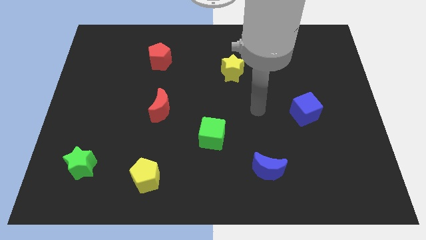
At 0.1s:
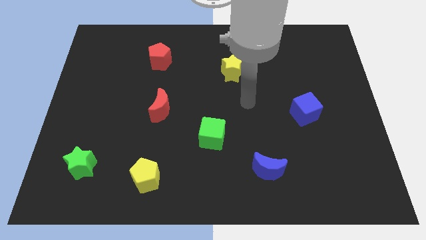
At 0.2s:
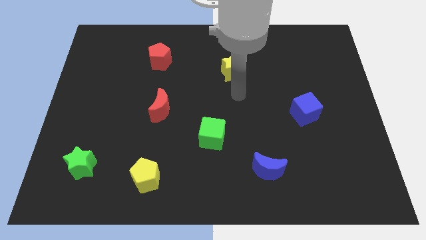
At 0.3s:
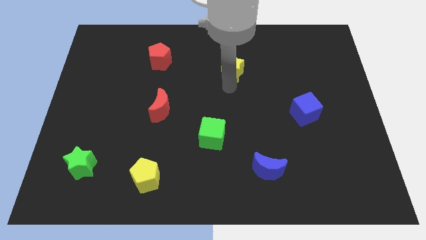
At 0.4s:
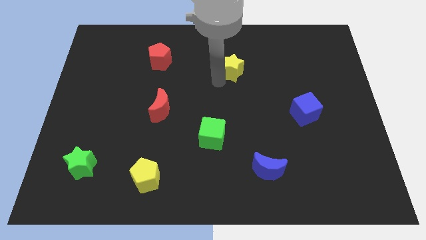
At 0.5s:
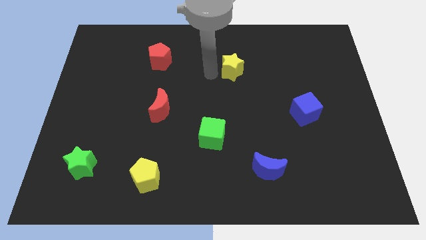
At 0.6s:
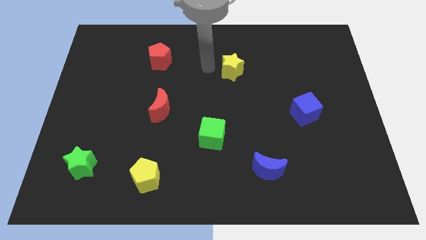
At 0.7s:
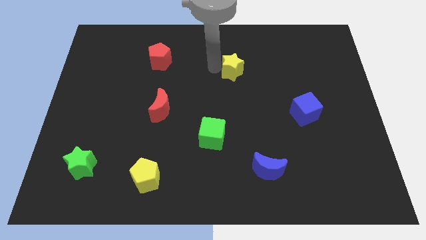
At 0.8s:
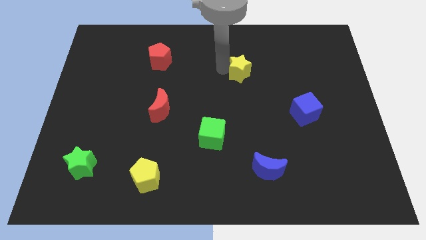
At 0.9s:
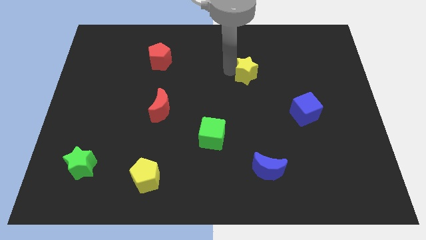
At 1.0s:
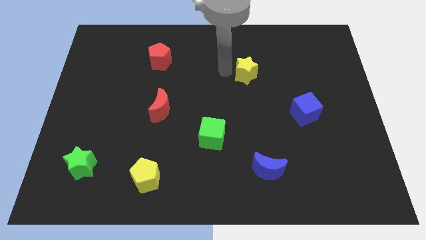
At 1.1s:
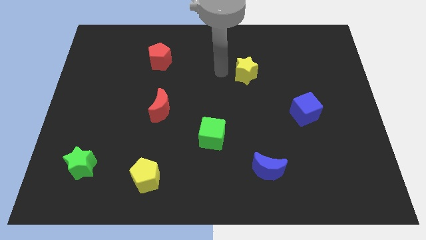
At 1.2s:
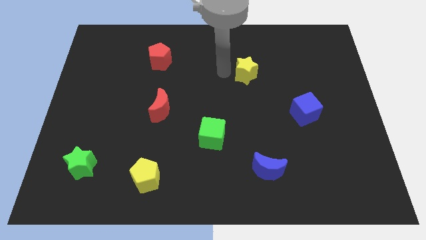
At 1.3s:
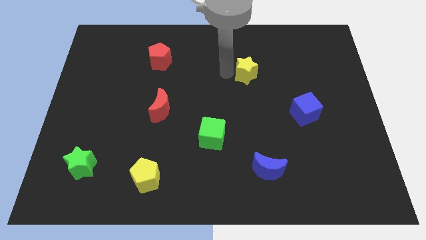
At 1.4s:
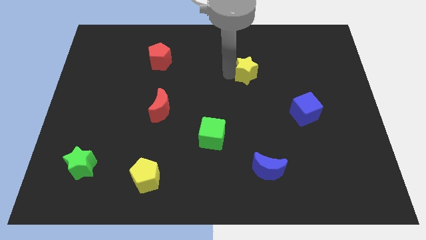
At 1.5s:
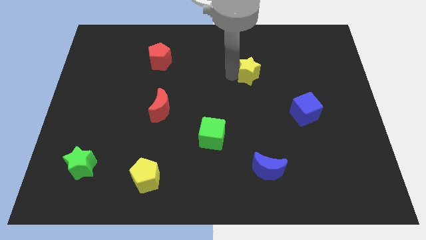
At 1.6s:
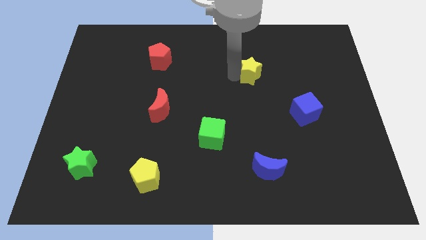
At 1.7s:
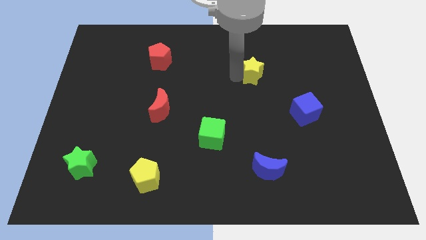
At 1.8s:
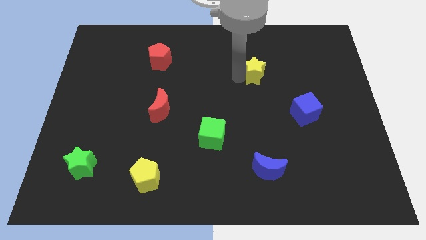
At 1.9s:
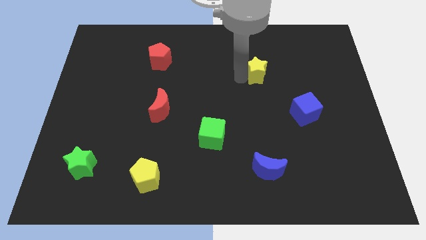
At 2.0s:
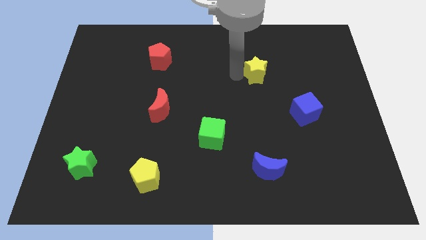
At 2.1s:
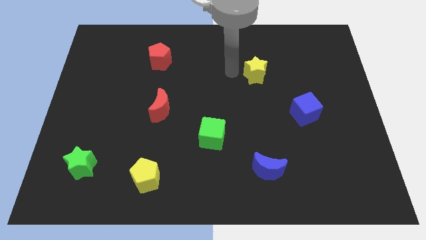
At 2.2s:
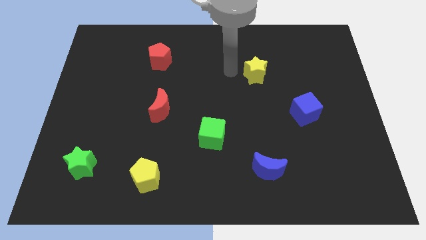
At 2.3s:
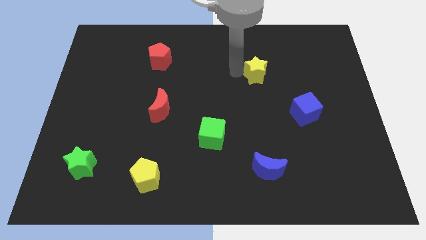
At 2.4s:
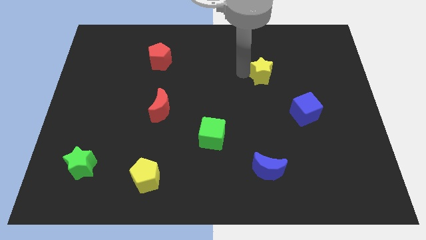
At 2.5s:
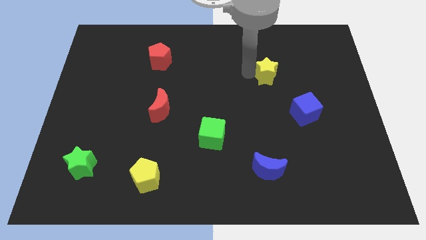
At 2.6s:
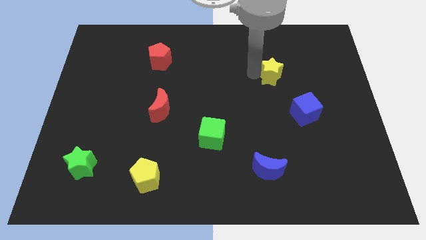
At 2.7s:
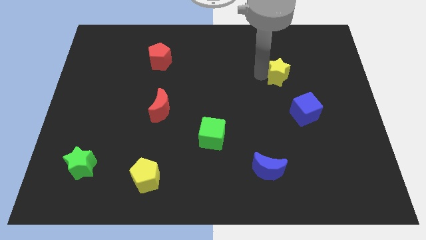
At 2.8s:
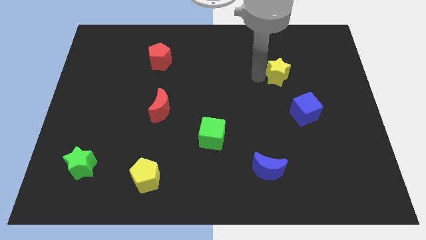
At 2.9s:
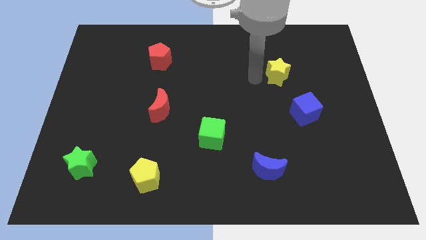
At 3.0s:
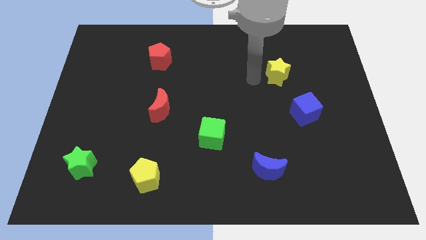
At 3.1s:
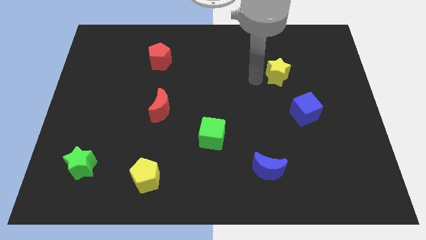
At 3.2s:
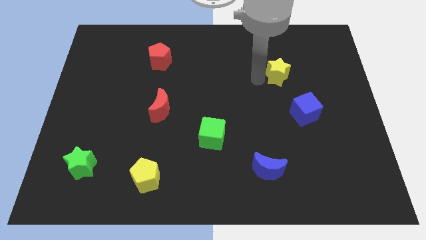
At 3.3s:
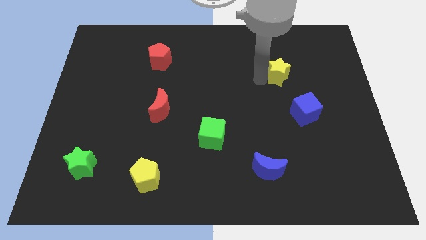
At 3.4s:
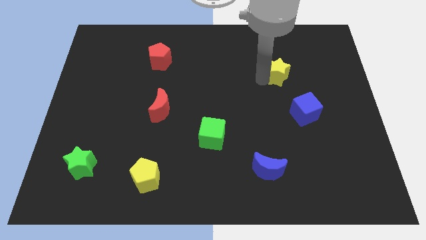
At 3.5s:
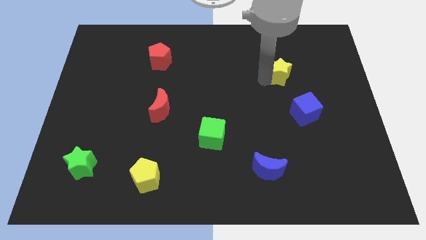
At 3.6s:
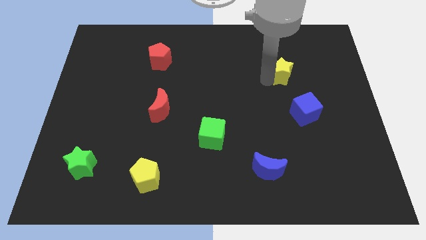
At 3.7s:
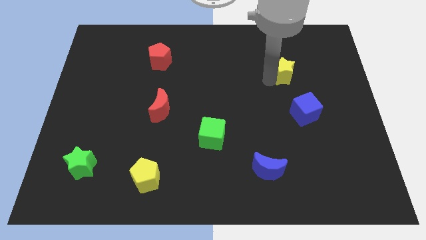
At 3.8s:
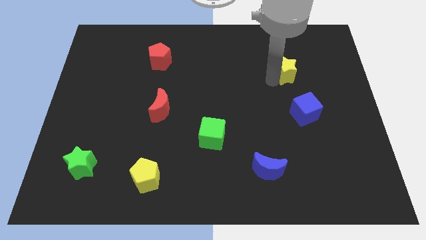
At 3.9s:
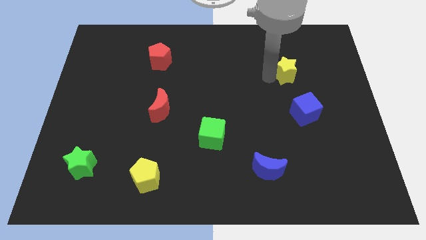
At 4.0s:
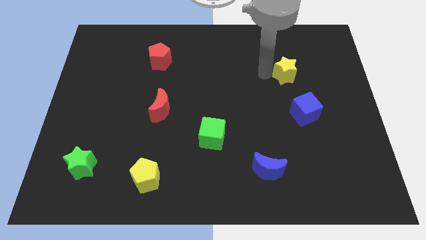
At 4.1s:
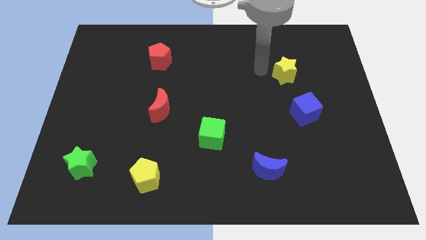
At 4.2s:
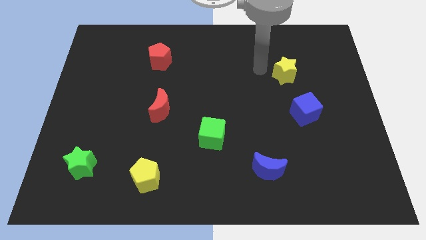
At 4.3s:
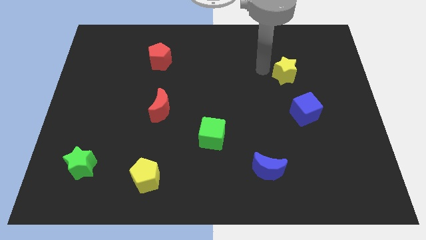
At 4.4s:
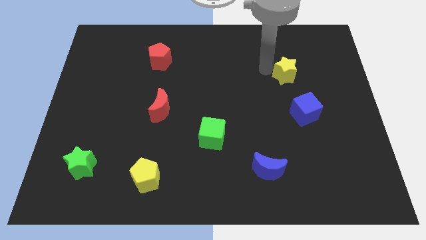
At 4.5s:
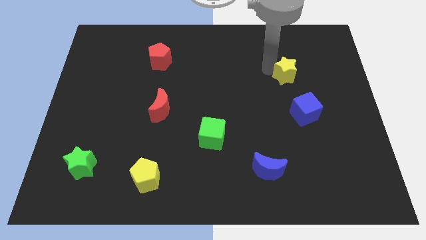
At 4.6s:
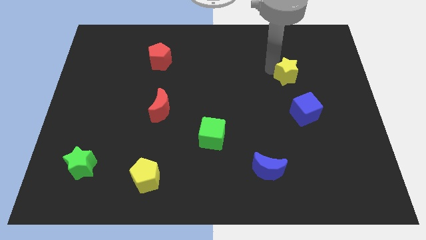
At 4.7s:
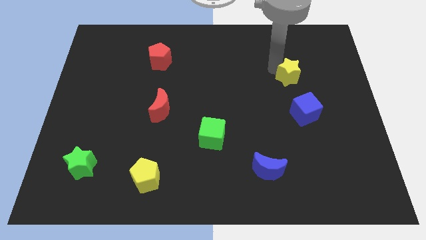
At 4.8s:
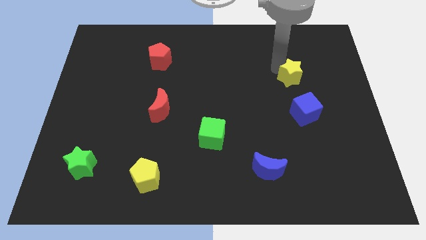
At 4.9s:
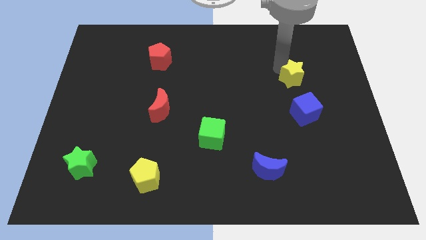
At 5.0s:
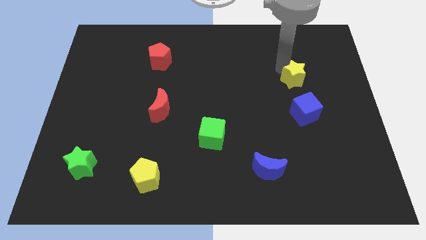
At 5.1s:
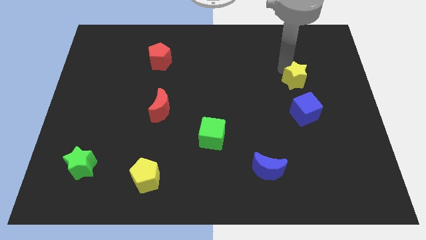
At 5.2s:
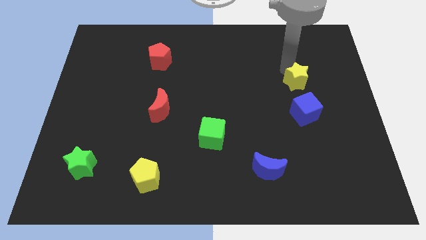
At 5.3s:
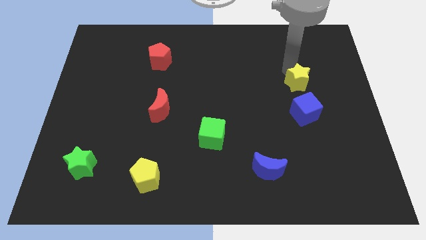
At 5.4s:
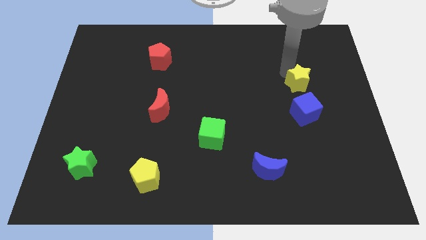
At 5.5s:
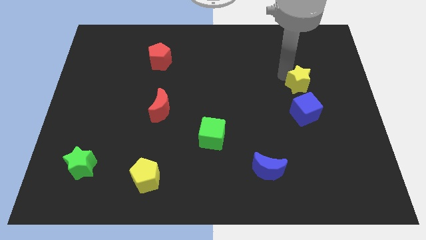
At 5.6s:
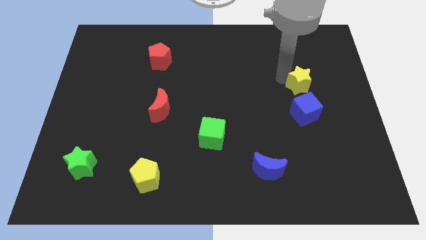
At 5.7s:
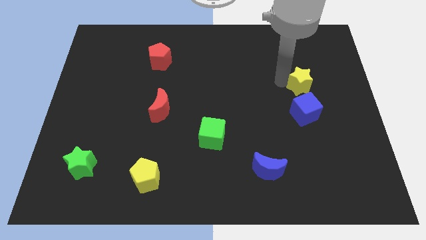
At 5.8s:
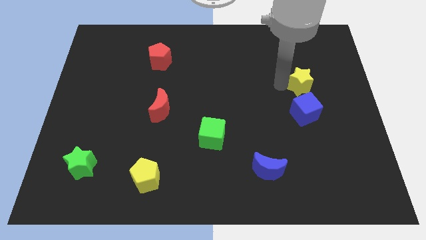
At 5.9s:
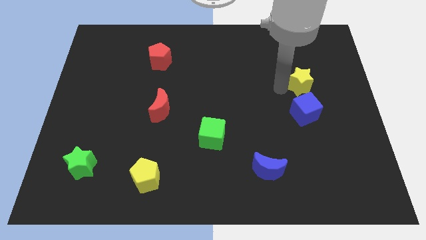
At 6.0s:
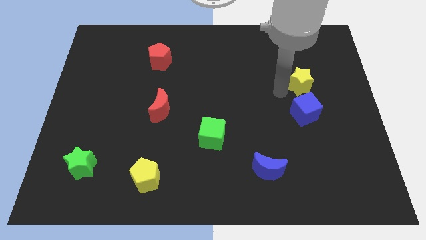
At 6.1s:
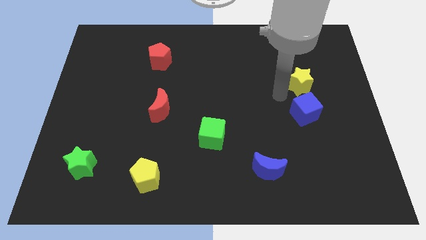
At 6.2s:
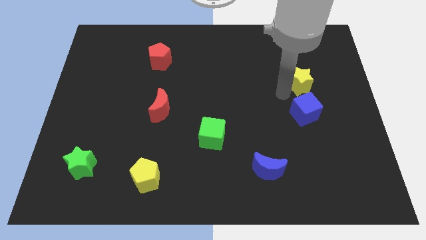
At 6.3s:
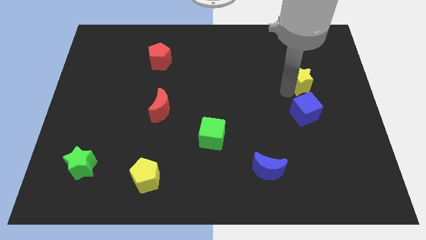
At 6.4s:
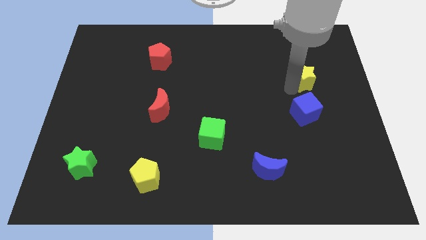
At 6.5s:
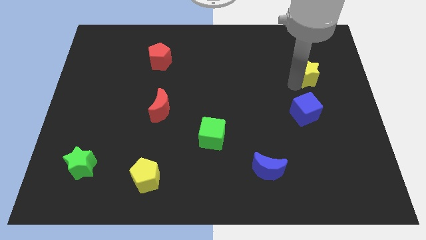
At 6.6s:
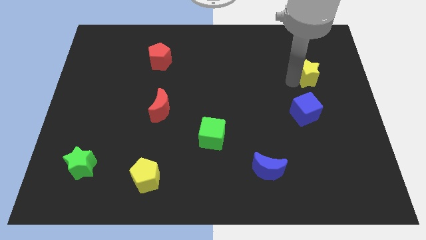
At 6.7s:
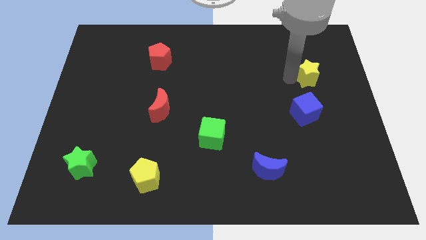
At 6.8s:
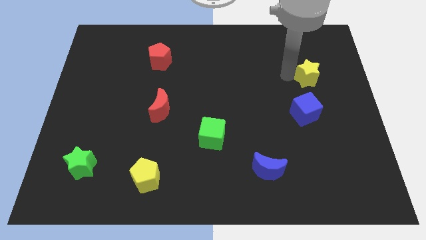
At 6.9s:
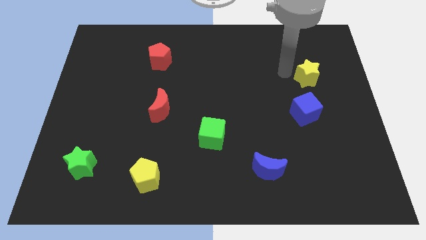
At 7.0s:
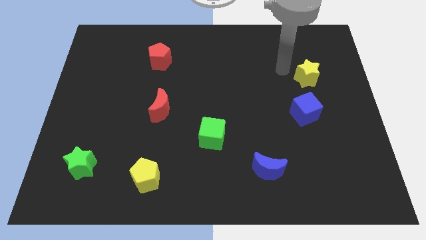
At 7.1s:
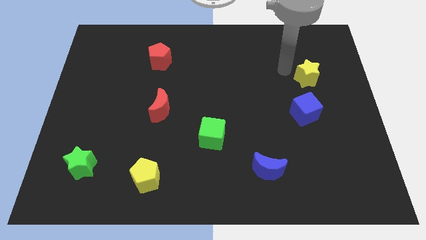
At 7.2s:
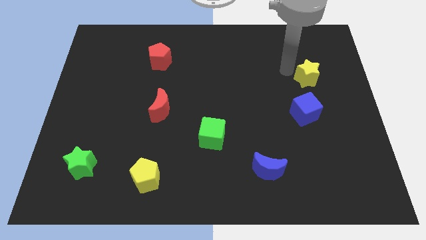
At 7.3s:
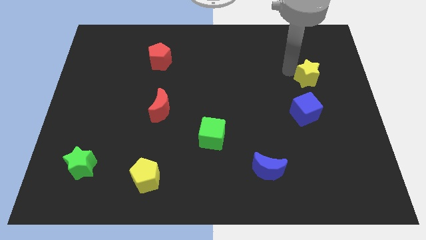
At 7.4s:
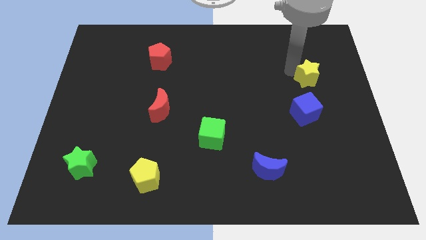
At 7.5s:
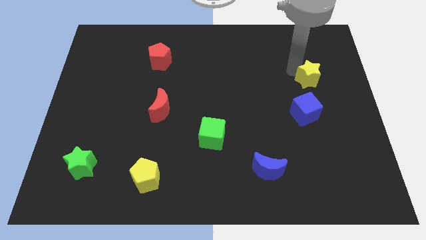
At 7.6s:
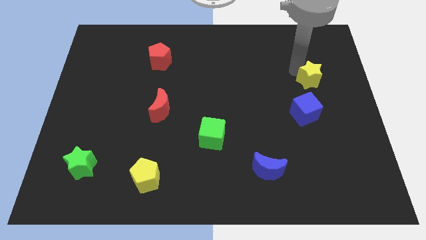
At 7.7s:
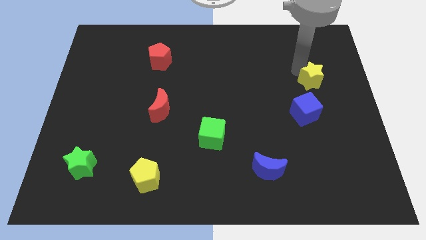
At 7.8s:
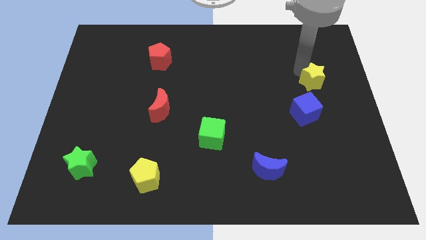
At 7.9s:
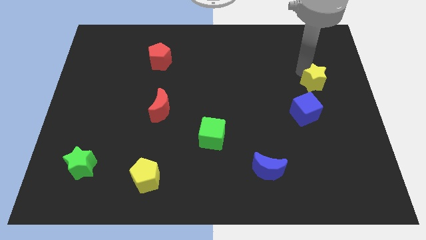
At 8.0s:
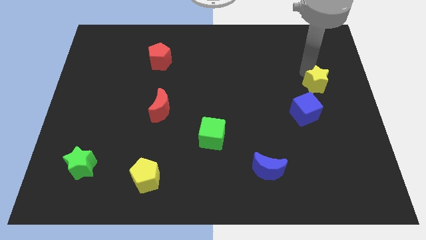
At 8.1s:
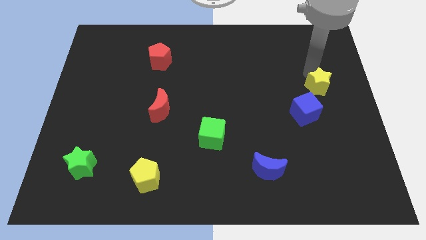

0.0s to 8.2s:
put the yellow star to the center right
